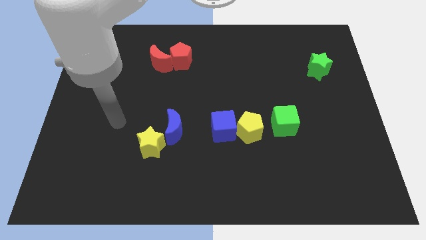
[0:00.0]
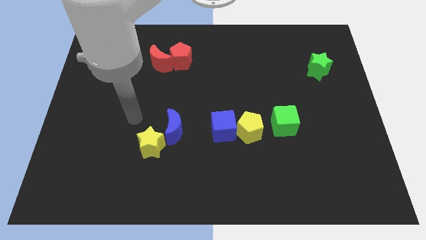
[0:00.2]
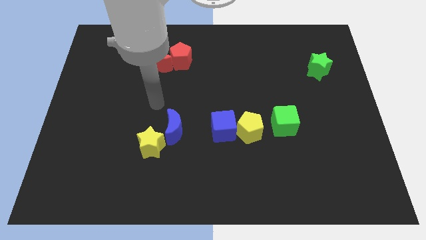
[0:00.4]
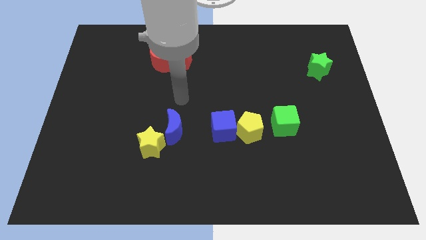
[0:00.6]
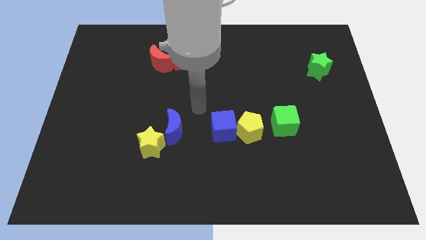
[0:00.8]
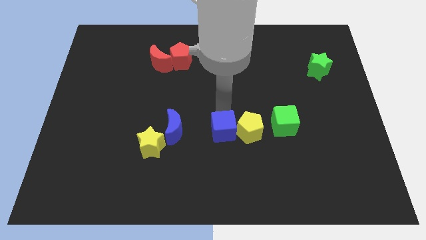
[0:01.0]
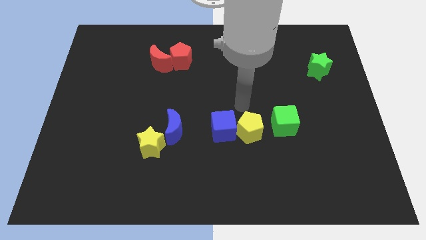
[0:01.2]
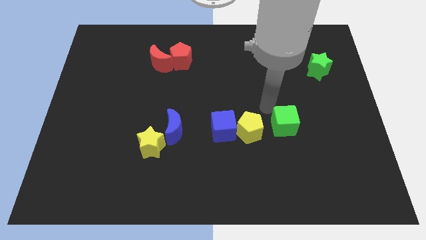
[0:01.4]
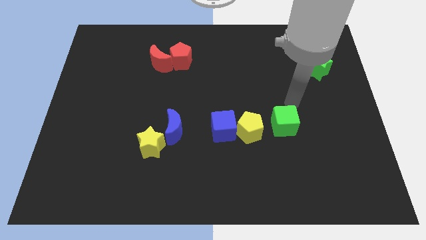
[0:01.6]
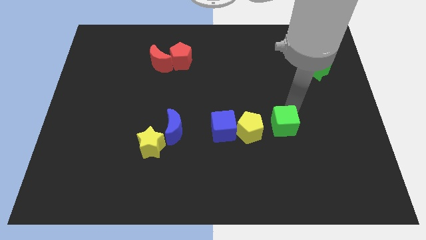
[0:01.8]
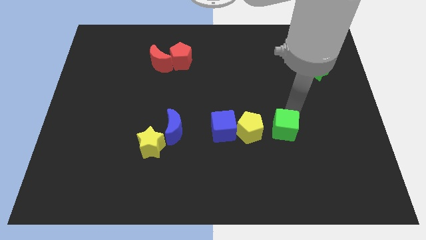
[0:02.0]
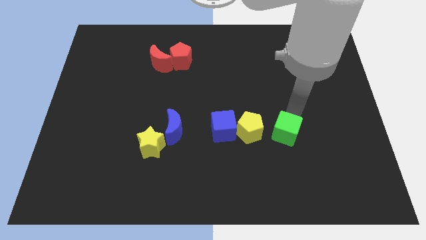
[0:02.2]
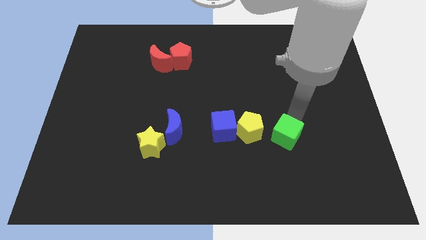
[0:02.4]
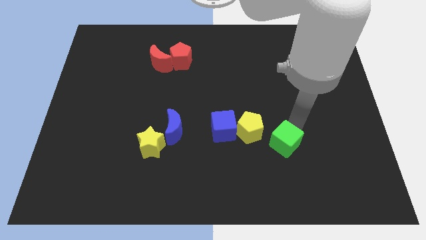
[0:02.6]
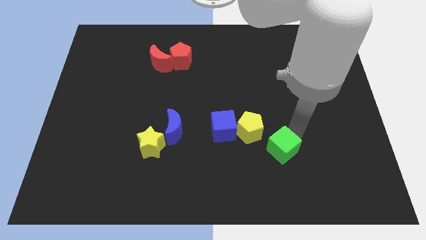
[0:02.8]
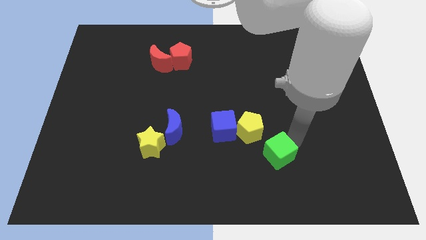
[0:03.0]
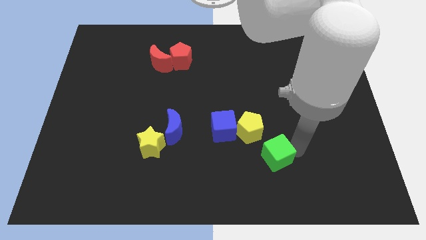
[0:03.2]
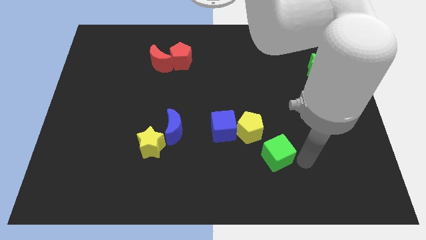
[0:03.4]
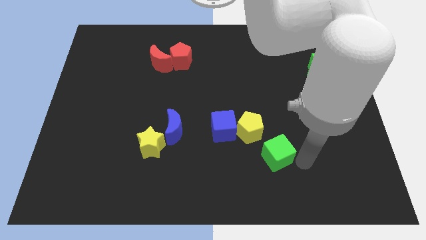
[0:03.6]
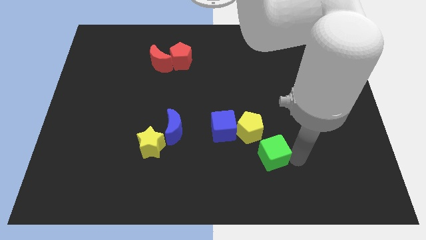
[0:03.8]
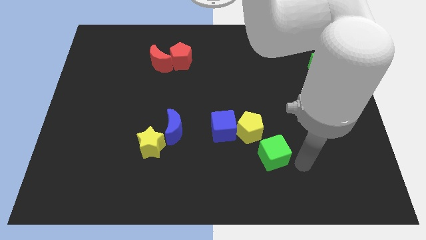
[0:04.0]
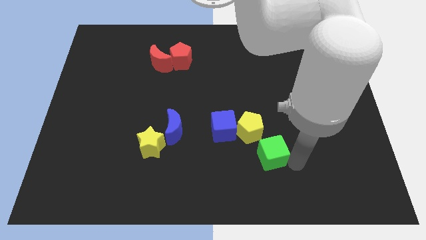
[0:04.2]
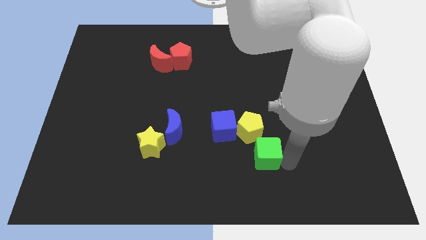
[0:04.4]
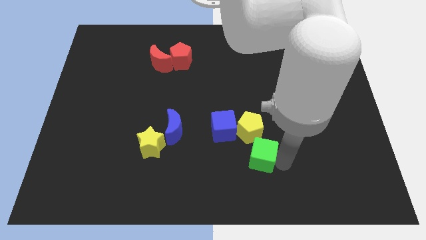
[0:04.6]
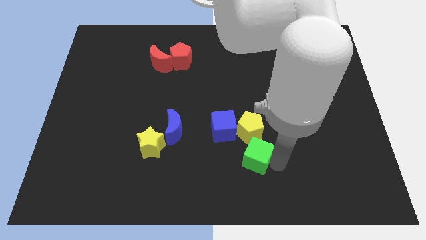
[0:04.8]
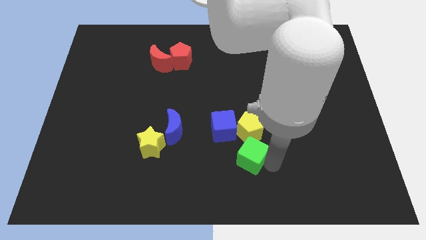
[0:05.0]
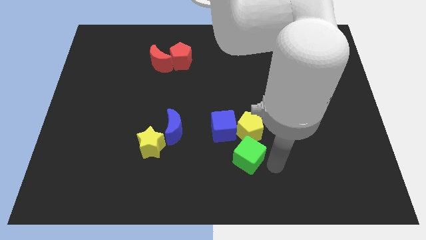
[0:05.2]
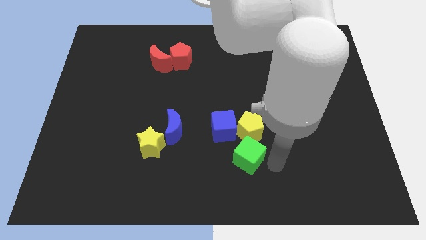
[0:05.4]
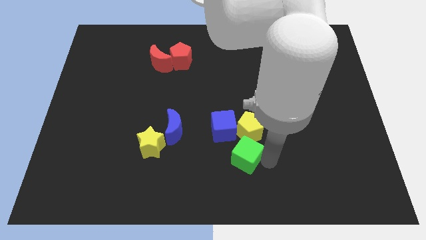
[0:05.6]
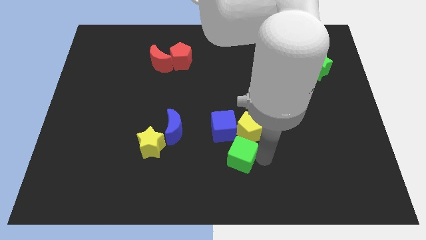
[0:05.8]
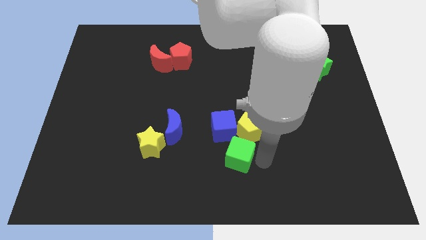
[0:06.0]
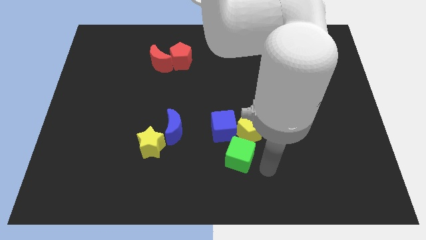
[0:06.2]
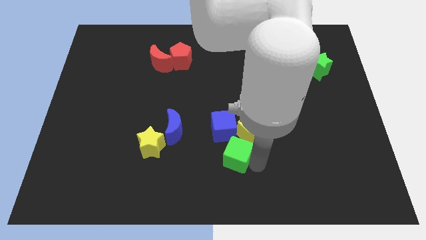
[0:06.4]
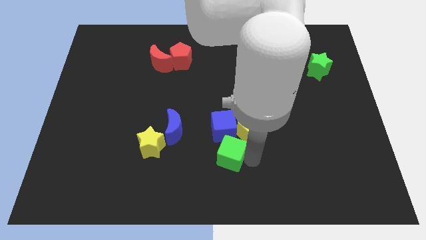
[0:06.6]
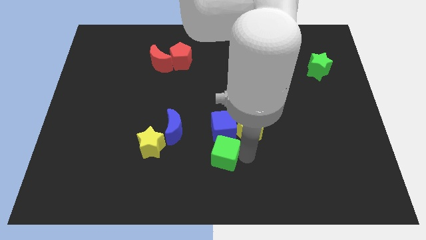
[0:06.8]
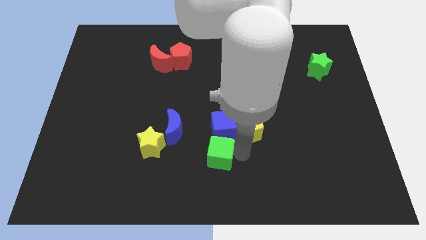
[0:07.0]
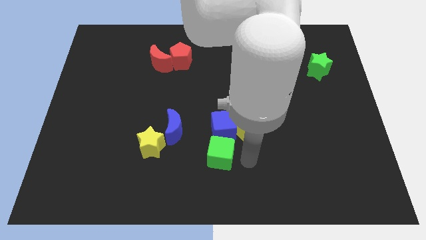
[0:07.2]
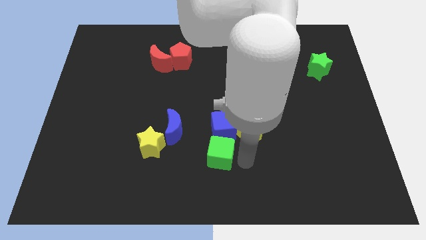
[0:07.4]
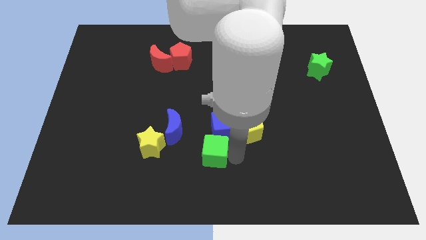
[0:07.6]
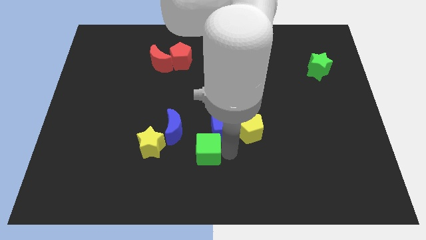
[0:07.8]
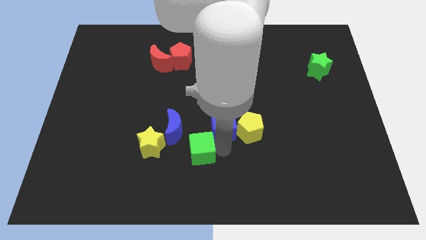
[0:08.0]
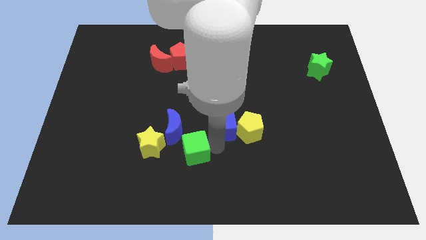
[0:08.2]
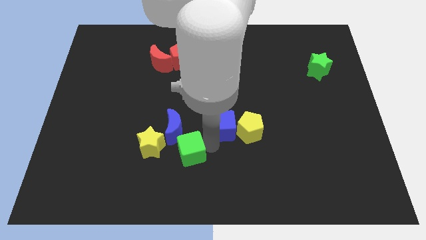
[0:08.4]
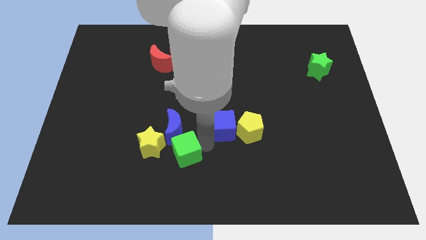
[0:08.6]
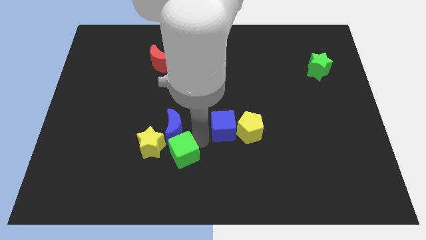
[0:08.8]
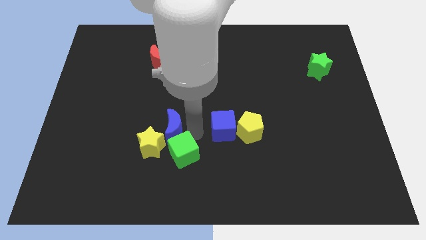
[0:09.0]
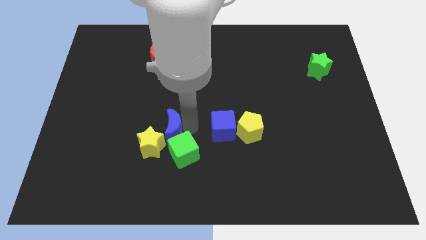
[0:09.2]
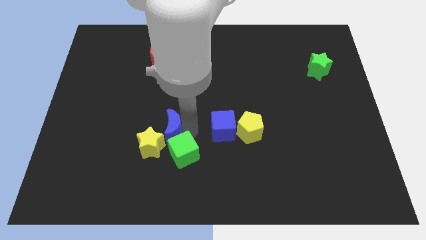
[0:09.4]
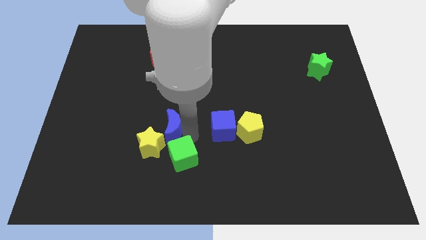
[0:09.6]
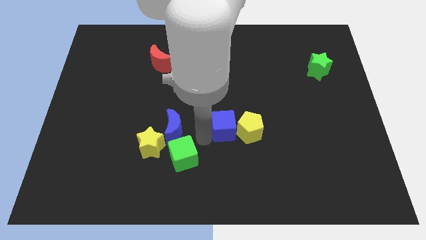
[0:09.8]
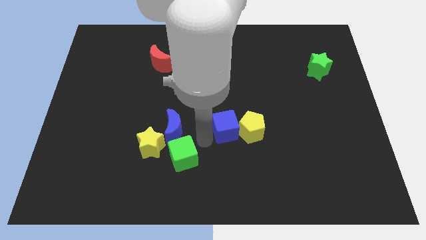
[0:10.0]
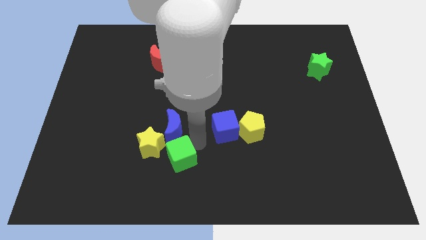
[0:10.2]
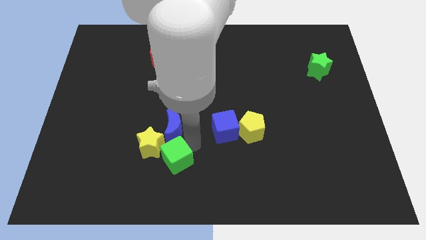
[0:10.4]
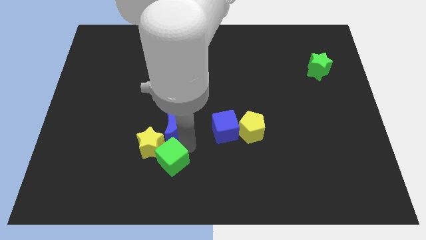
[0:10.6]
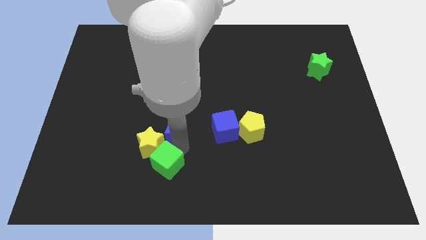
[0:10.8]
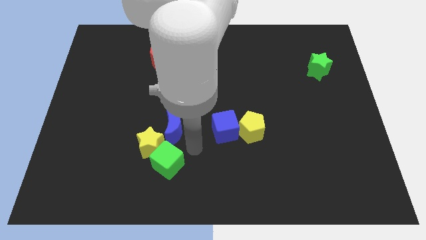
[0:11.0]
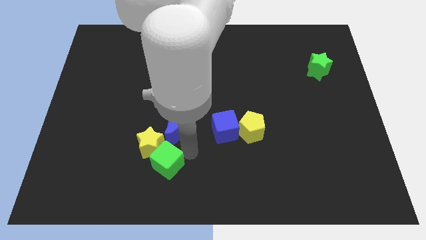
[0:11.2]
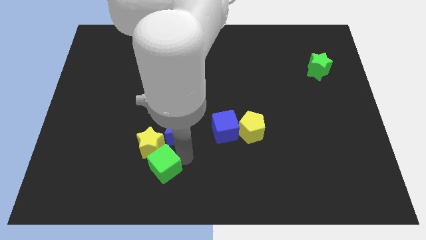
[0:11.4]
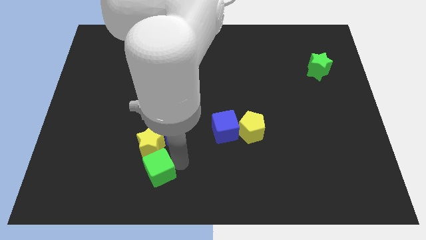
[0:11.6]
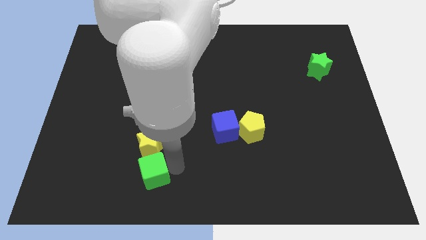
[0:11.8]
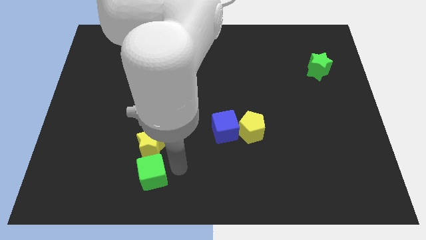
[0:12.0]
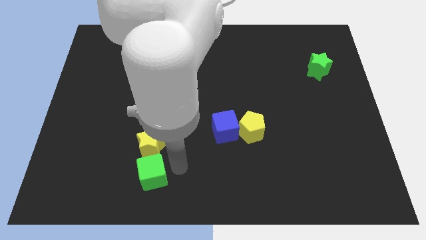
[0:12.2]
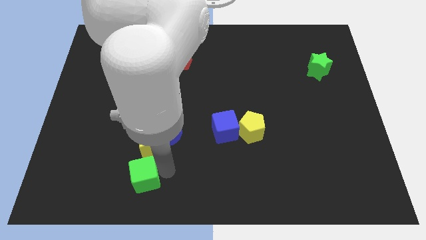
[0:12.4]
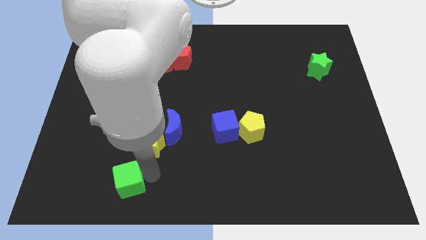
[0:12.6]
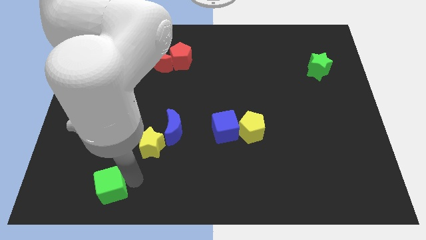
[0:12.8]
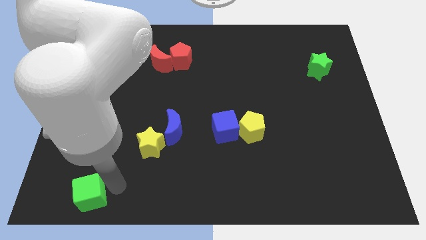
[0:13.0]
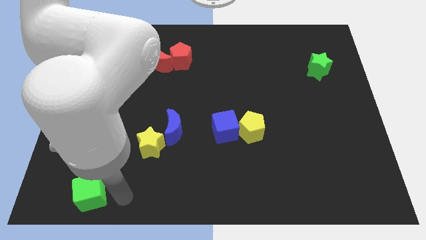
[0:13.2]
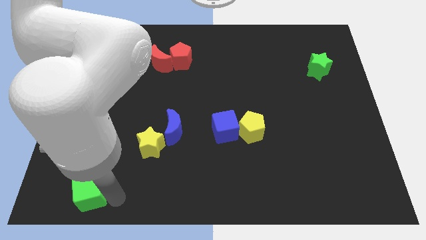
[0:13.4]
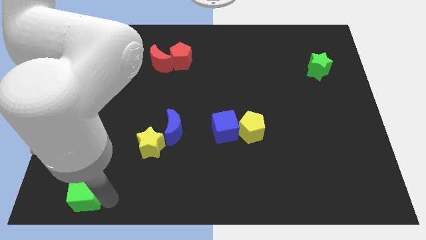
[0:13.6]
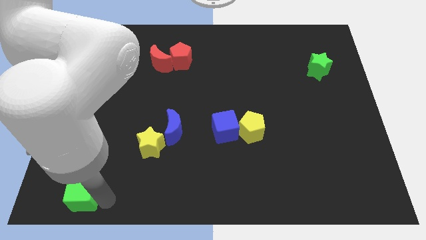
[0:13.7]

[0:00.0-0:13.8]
move the green cube to the bottom left of the board

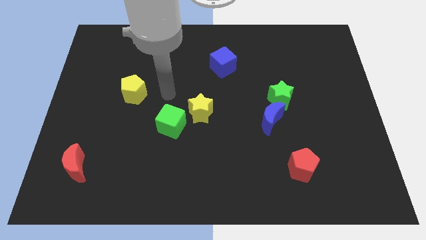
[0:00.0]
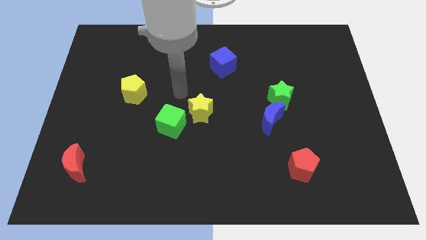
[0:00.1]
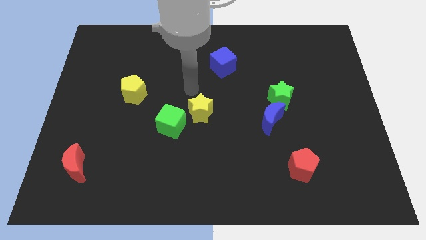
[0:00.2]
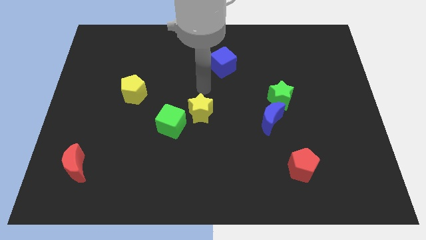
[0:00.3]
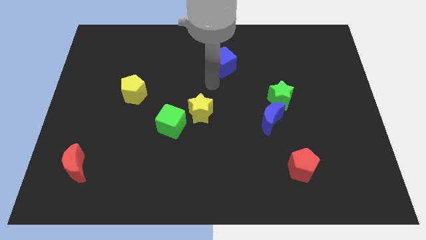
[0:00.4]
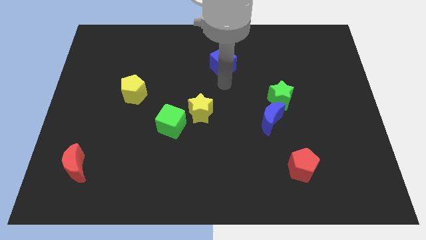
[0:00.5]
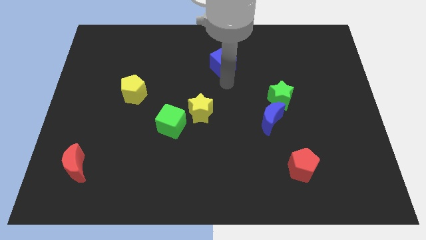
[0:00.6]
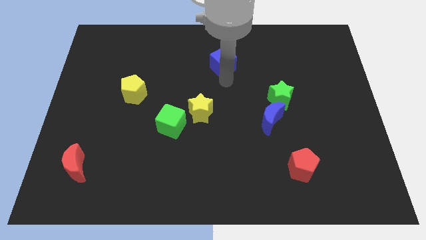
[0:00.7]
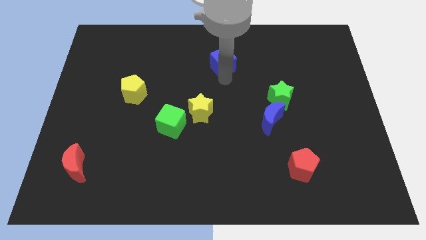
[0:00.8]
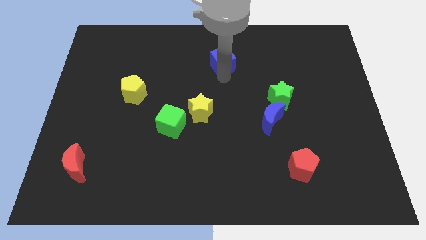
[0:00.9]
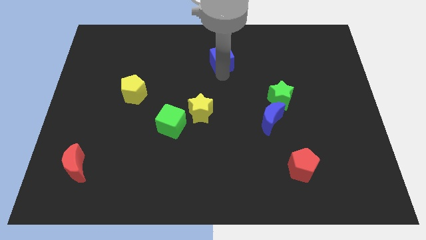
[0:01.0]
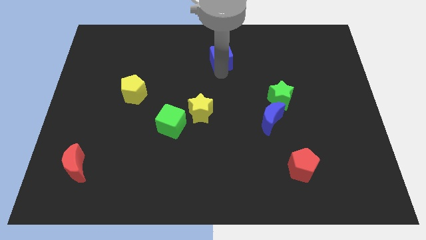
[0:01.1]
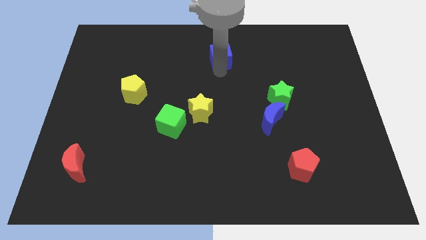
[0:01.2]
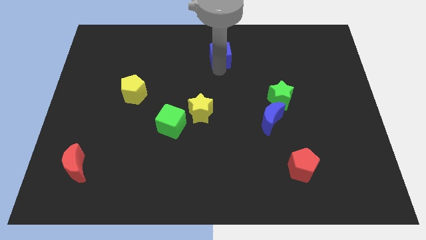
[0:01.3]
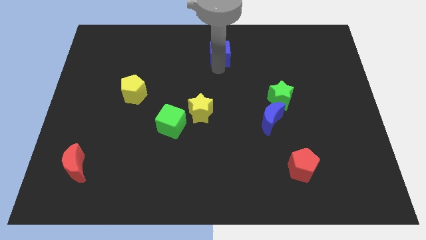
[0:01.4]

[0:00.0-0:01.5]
put the blue cube to the top

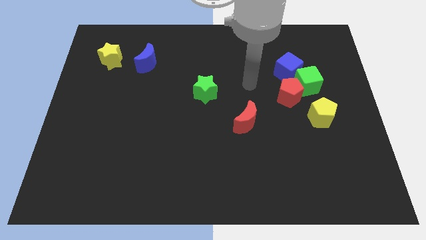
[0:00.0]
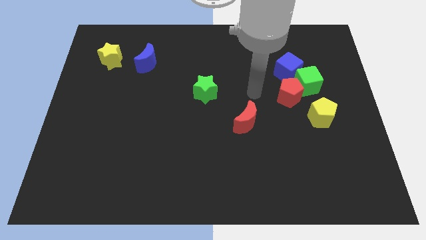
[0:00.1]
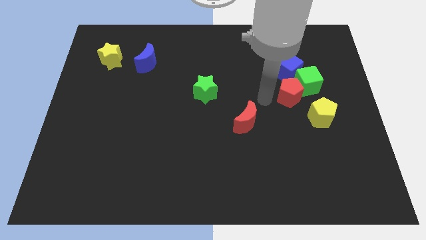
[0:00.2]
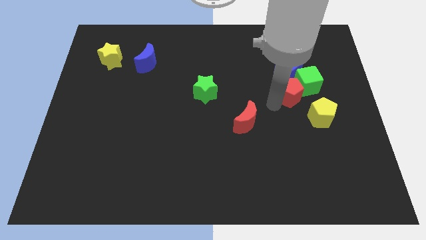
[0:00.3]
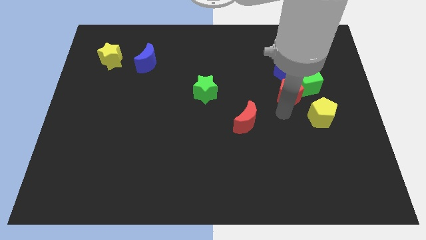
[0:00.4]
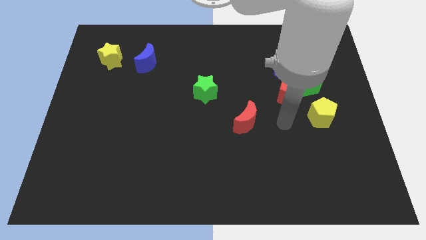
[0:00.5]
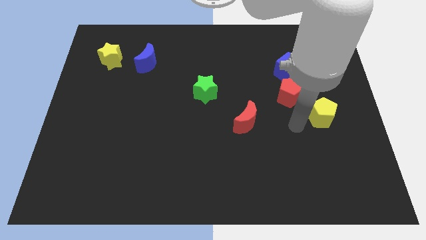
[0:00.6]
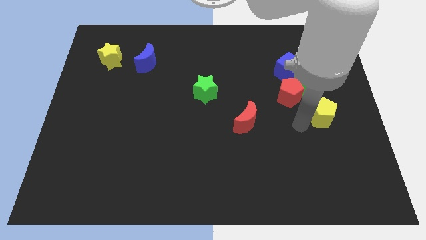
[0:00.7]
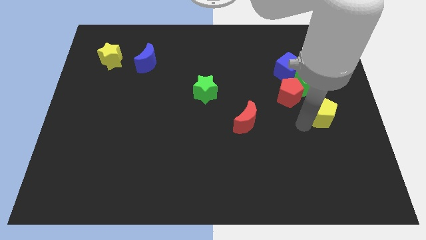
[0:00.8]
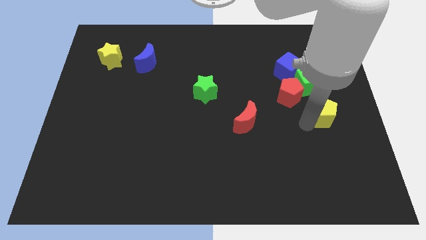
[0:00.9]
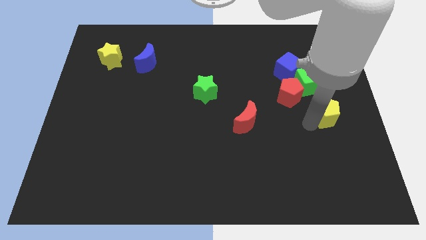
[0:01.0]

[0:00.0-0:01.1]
put the yellow pentagon to the right side
